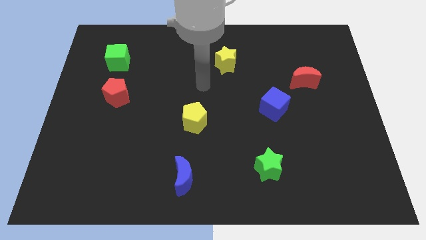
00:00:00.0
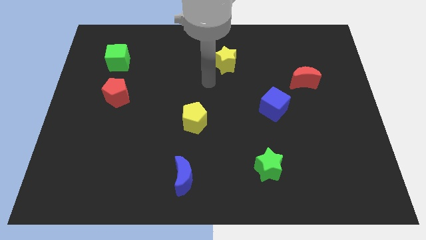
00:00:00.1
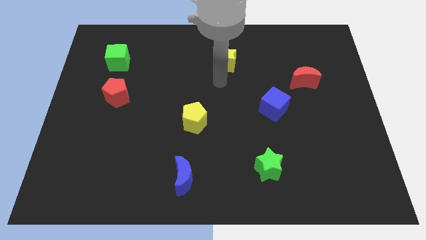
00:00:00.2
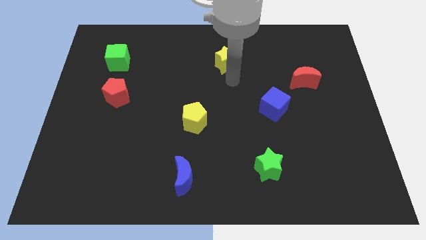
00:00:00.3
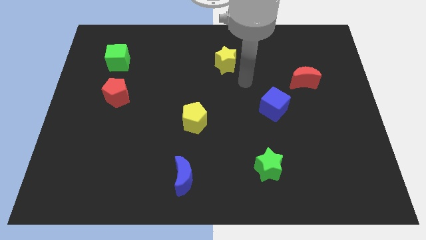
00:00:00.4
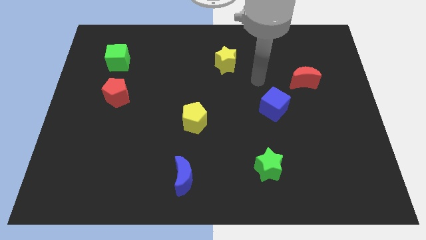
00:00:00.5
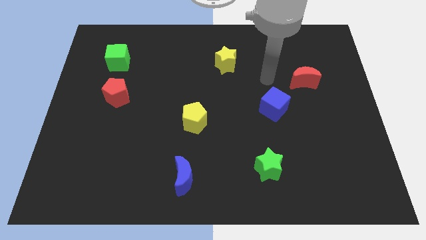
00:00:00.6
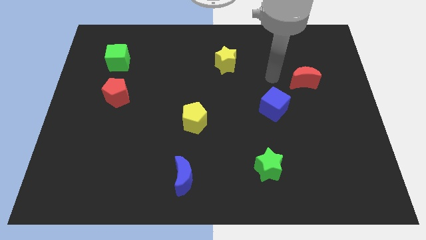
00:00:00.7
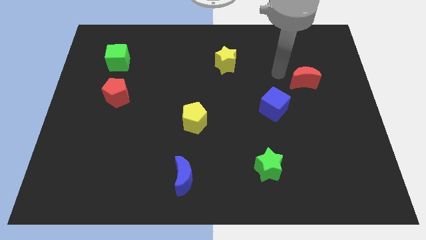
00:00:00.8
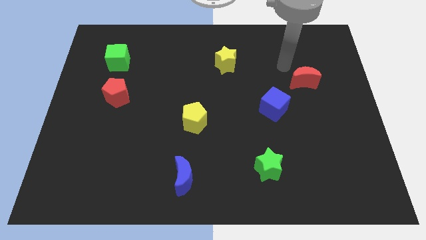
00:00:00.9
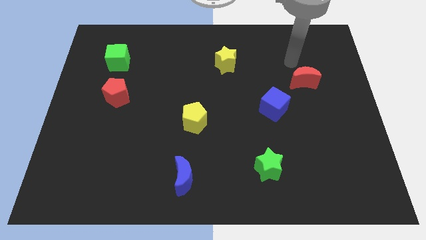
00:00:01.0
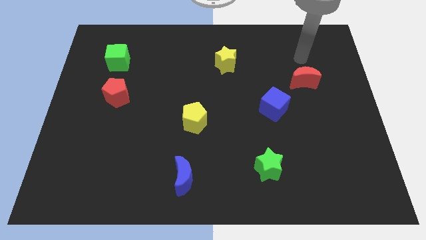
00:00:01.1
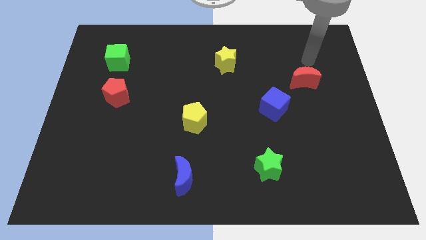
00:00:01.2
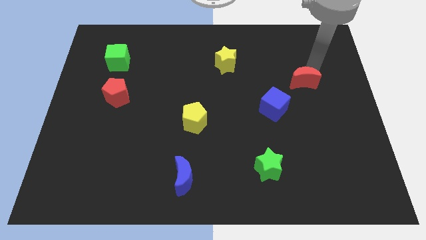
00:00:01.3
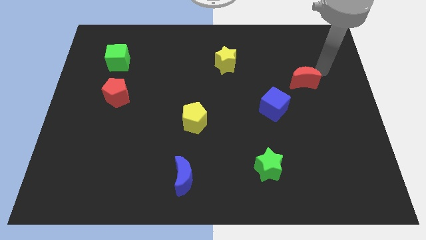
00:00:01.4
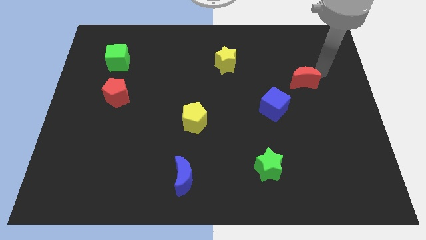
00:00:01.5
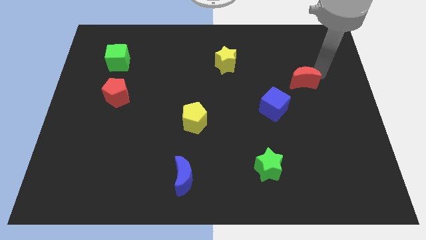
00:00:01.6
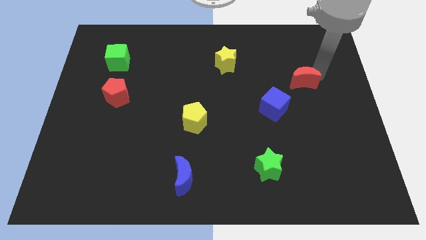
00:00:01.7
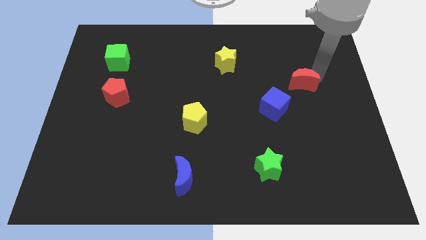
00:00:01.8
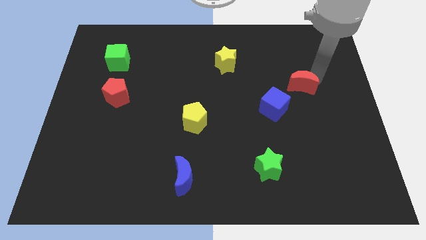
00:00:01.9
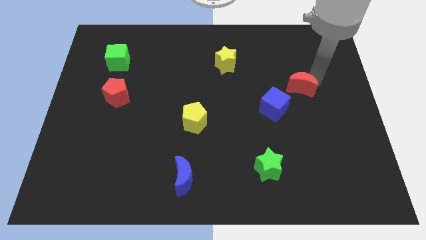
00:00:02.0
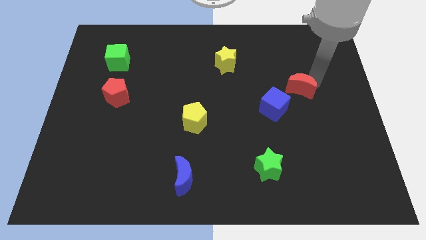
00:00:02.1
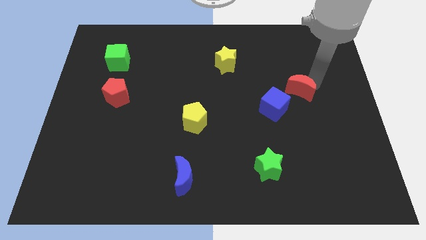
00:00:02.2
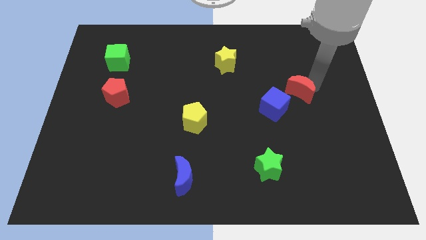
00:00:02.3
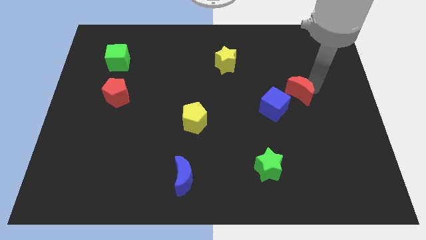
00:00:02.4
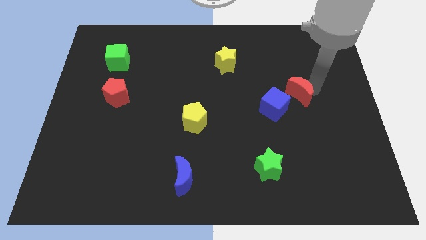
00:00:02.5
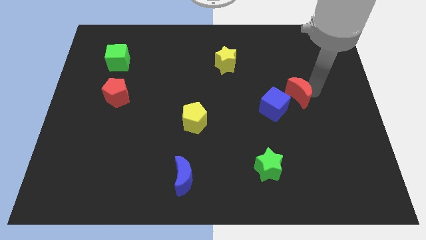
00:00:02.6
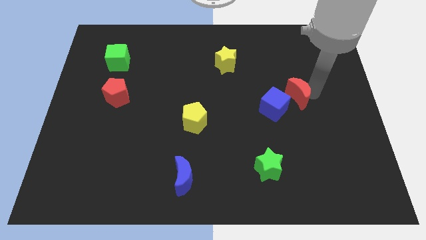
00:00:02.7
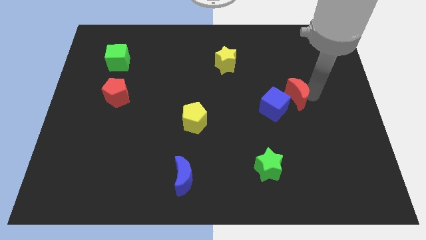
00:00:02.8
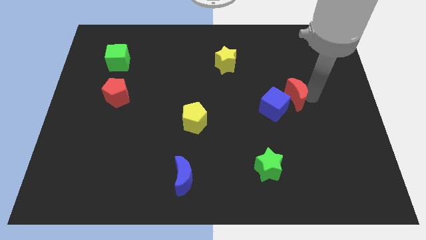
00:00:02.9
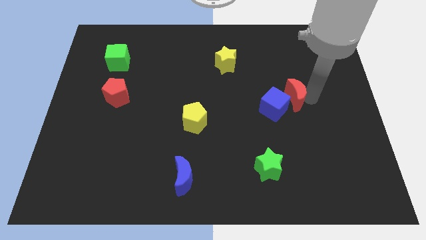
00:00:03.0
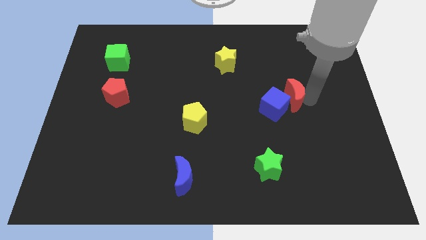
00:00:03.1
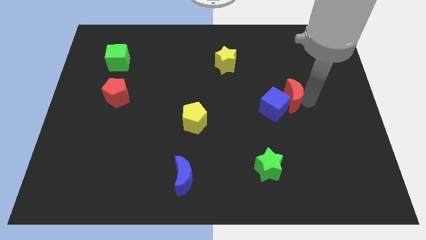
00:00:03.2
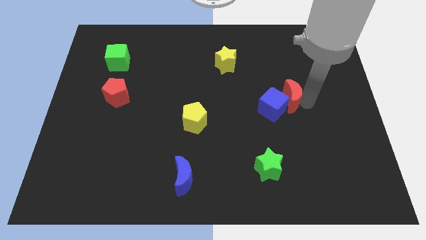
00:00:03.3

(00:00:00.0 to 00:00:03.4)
move the red moon a bit diagonally downwards and to the left

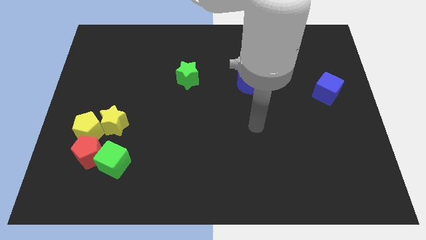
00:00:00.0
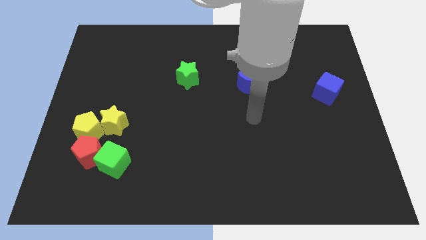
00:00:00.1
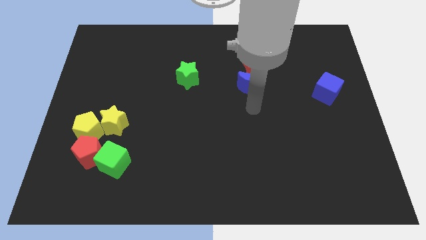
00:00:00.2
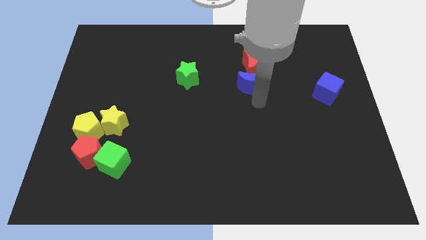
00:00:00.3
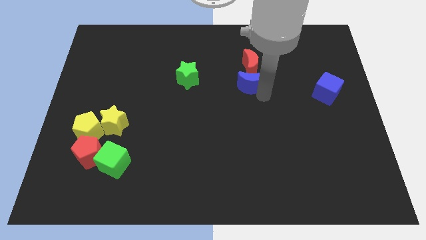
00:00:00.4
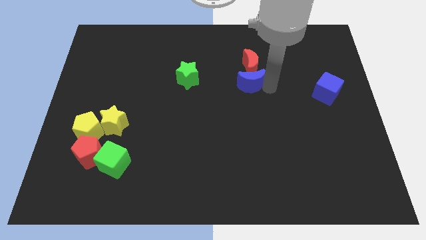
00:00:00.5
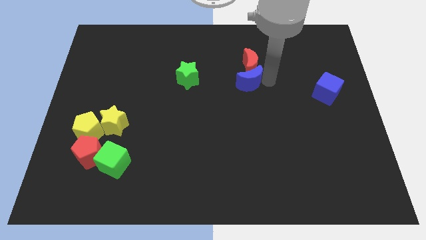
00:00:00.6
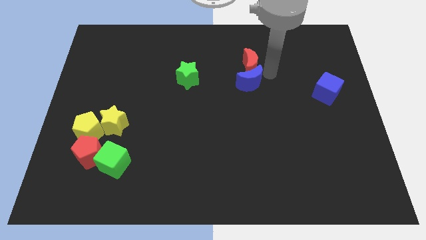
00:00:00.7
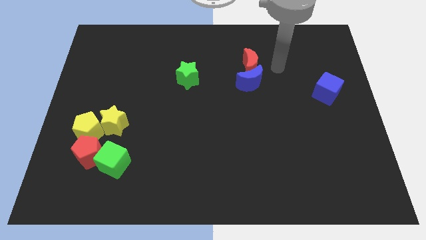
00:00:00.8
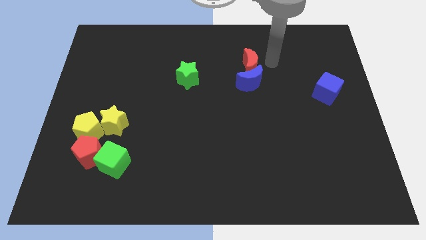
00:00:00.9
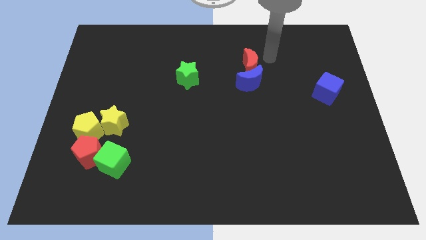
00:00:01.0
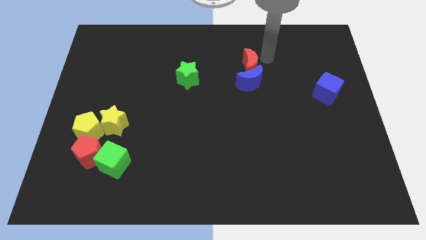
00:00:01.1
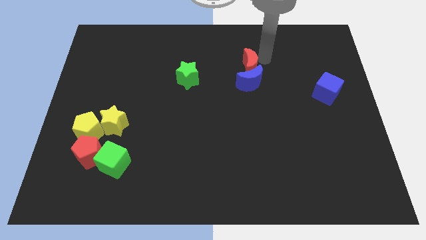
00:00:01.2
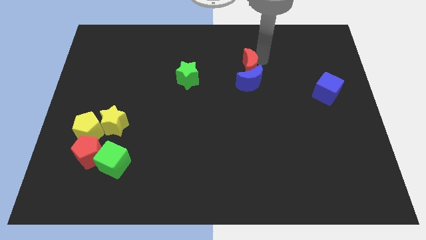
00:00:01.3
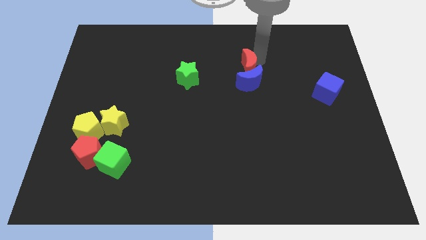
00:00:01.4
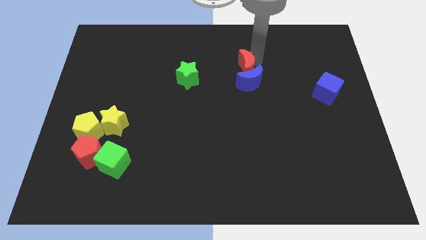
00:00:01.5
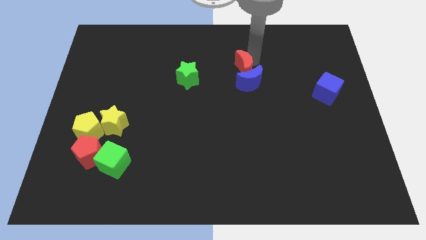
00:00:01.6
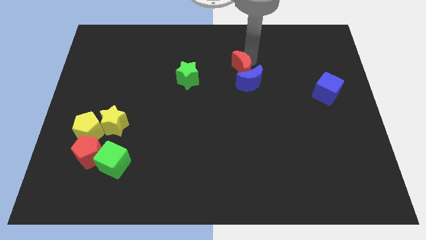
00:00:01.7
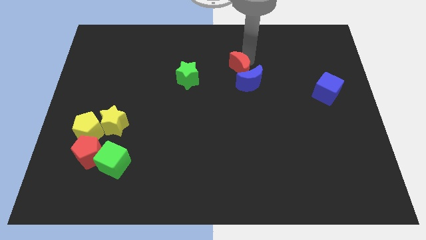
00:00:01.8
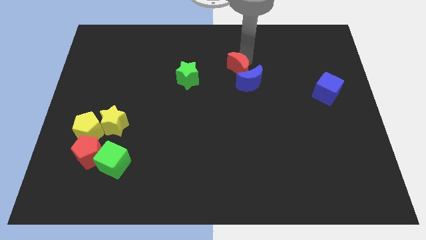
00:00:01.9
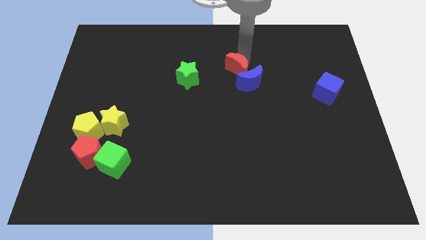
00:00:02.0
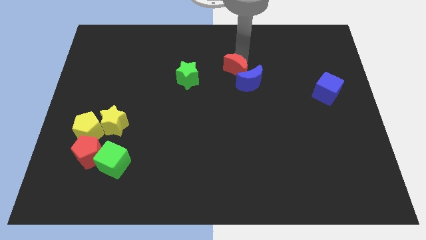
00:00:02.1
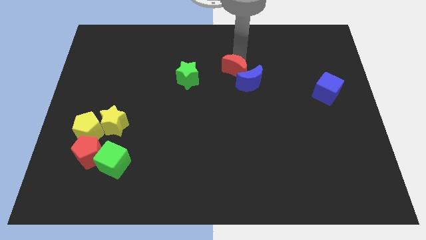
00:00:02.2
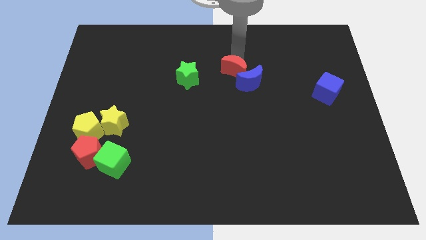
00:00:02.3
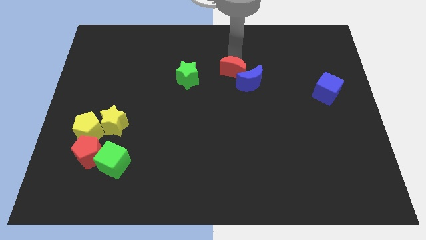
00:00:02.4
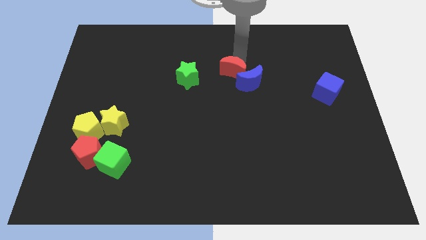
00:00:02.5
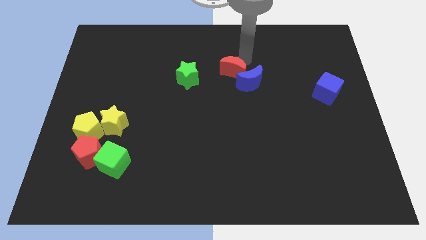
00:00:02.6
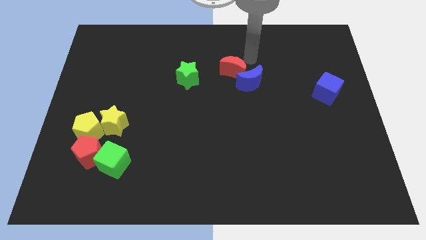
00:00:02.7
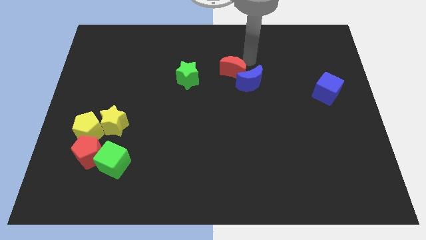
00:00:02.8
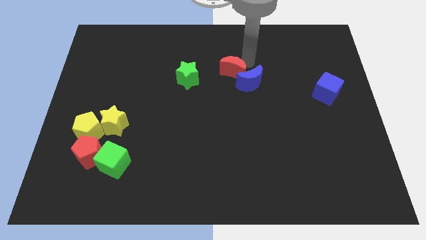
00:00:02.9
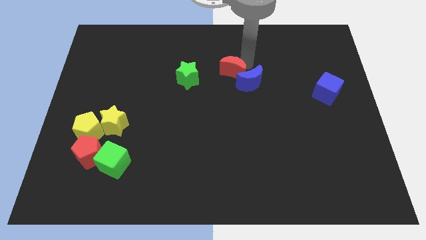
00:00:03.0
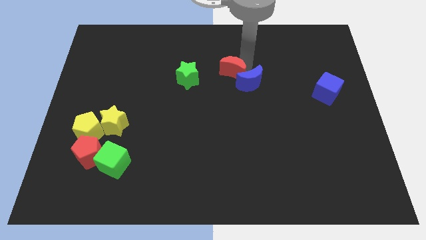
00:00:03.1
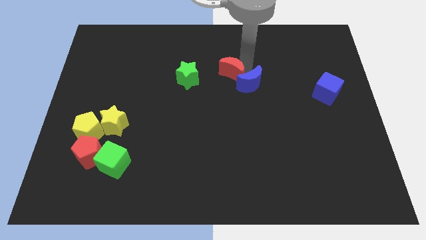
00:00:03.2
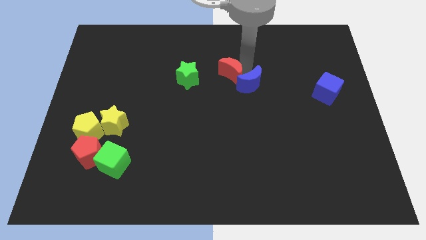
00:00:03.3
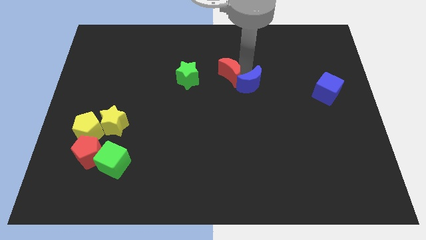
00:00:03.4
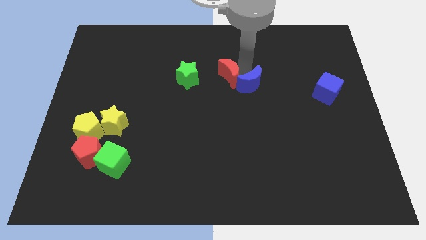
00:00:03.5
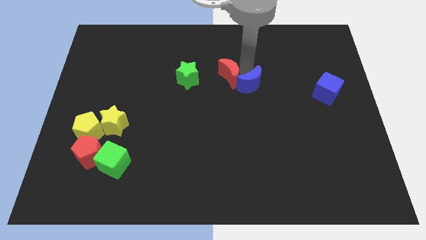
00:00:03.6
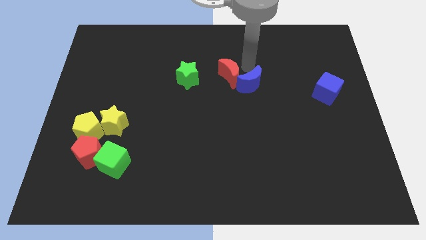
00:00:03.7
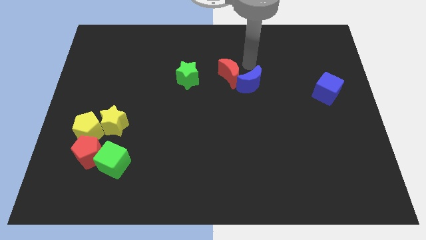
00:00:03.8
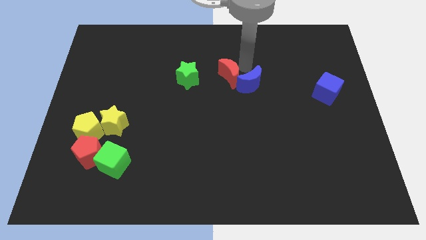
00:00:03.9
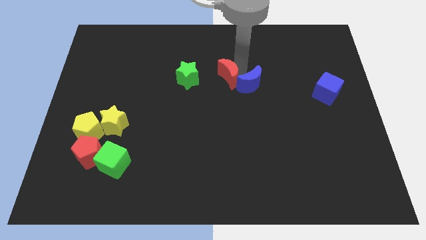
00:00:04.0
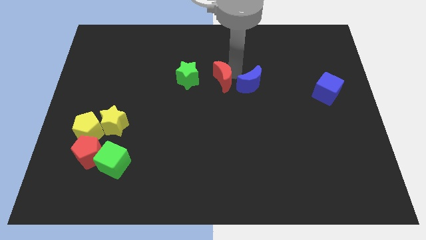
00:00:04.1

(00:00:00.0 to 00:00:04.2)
slide the red moon diagonally down and to the left somewhat

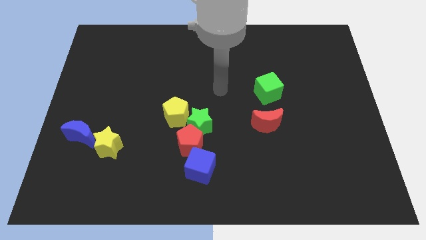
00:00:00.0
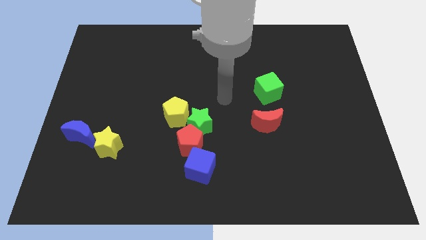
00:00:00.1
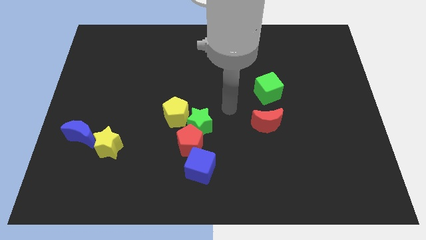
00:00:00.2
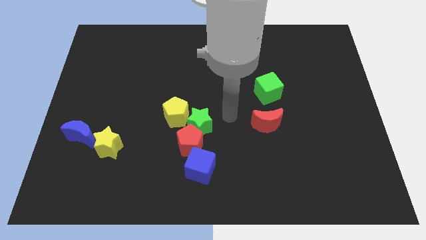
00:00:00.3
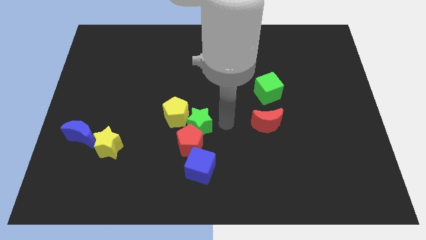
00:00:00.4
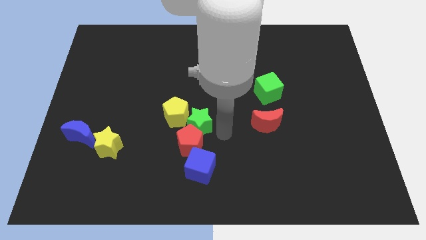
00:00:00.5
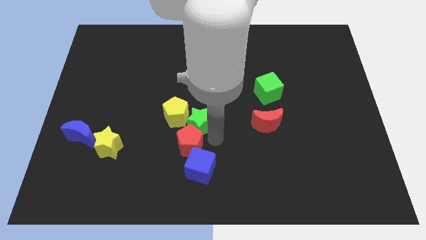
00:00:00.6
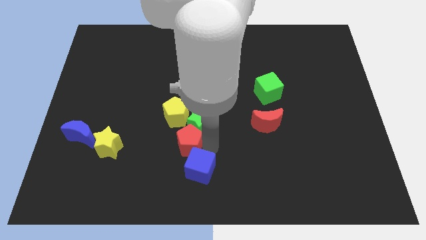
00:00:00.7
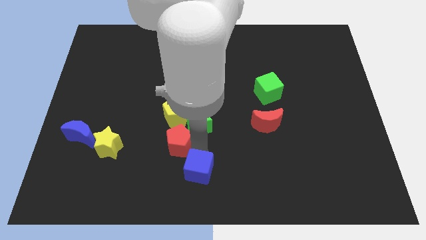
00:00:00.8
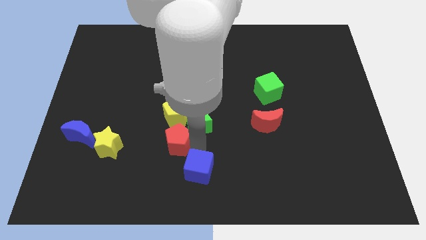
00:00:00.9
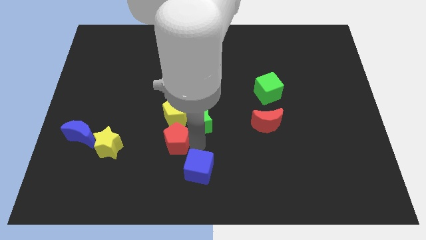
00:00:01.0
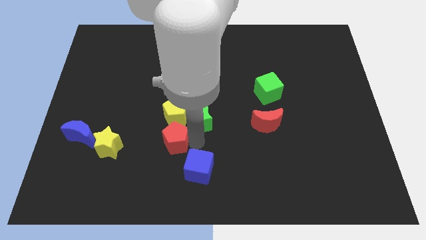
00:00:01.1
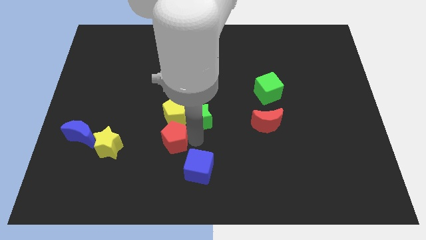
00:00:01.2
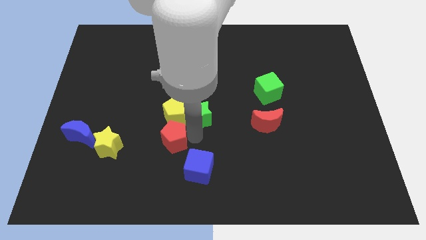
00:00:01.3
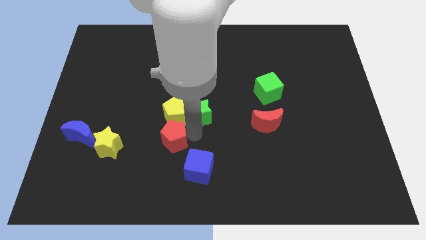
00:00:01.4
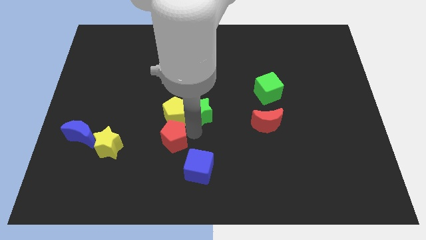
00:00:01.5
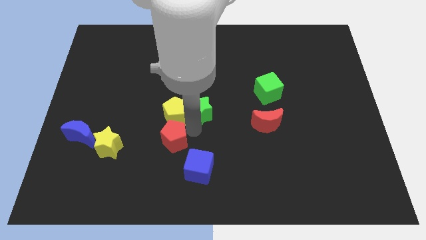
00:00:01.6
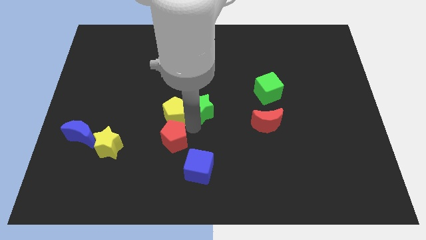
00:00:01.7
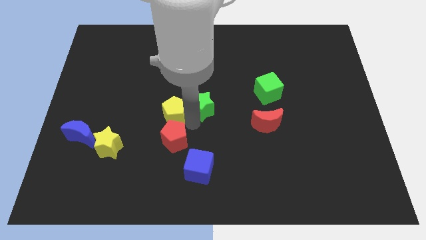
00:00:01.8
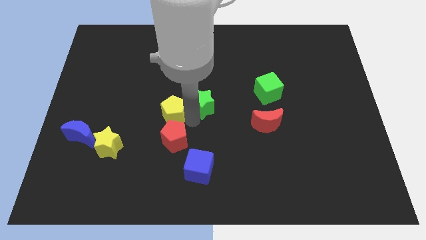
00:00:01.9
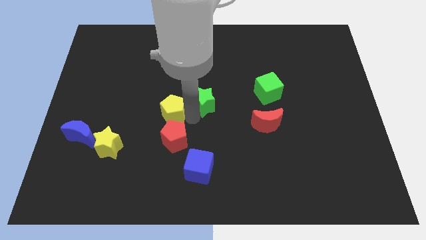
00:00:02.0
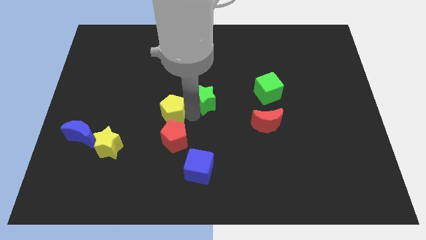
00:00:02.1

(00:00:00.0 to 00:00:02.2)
push the green star upwards a little
